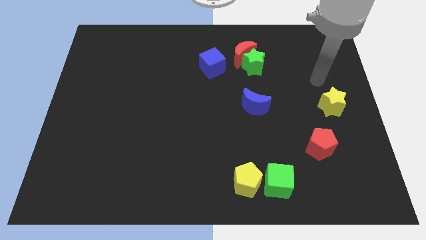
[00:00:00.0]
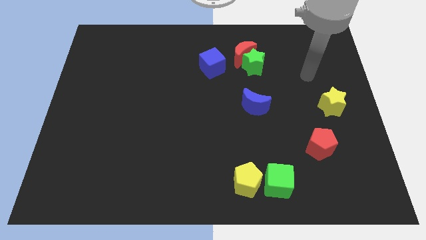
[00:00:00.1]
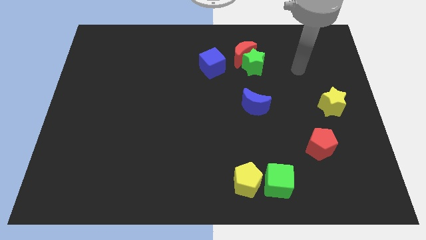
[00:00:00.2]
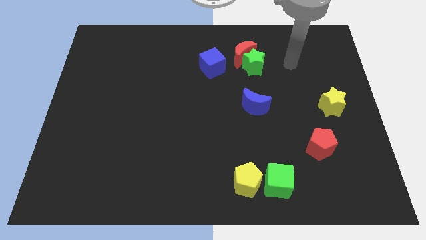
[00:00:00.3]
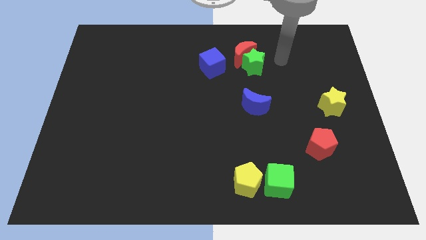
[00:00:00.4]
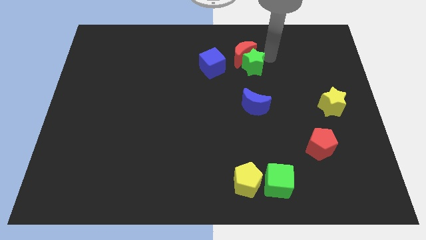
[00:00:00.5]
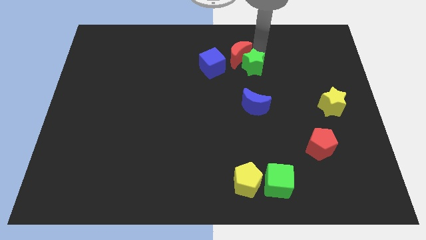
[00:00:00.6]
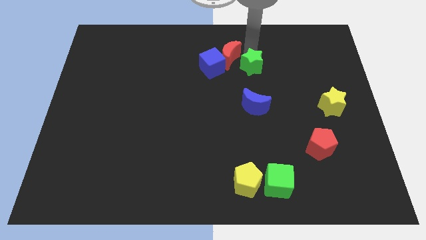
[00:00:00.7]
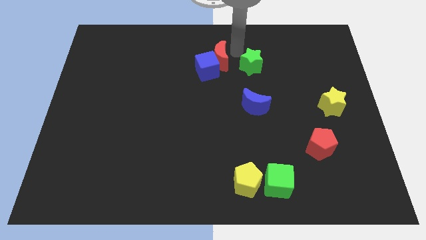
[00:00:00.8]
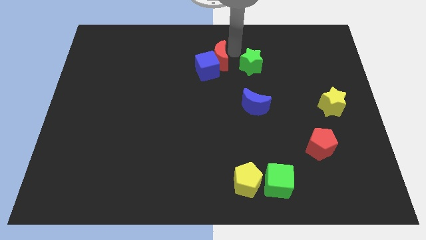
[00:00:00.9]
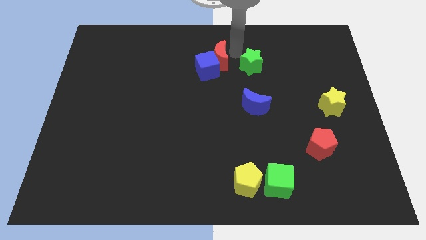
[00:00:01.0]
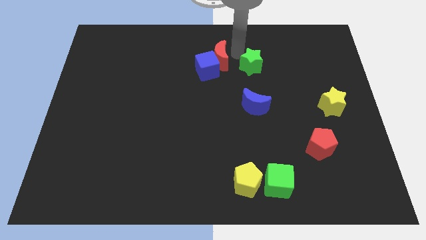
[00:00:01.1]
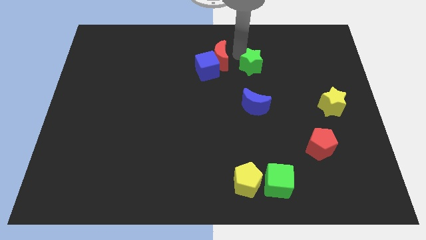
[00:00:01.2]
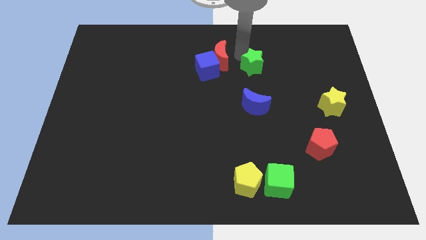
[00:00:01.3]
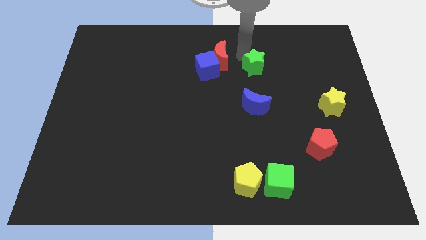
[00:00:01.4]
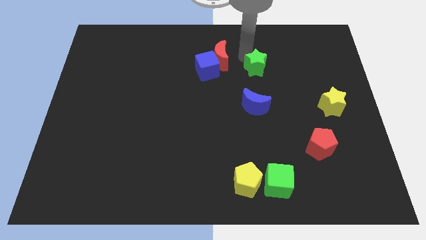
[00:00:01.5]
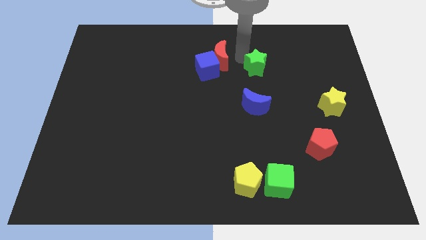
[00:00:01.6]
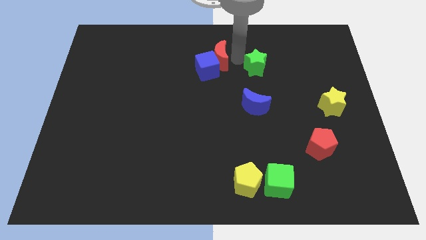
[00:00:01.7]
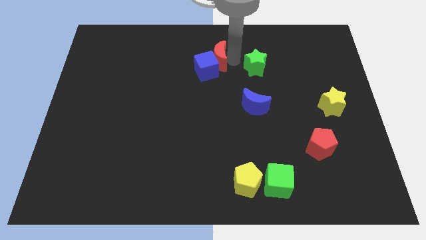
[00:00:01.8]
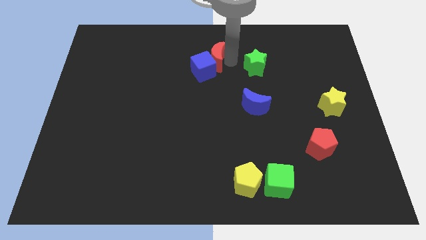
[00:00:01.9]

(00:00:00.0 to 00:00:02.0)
separate the green star from the red moon

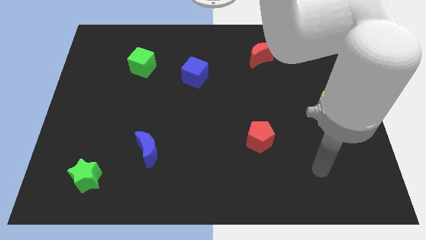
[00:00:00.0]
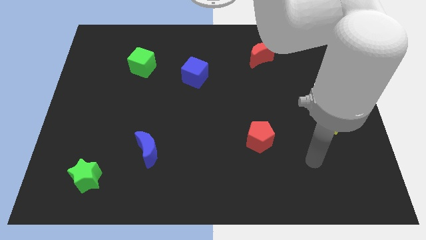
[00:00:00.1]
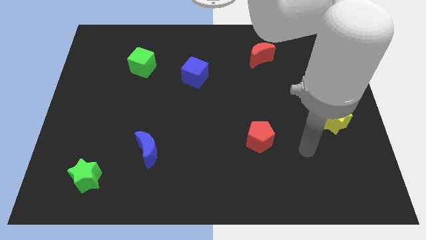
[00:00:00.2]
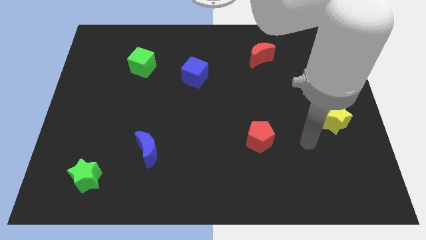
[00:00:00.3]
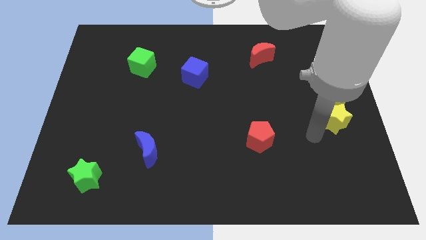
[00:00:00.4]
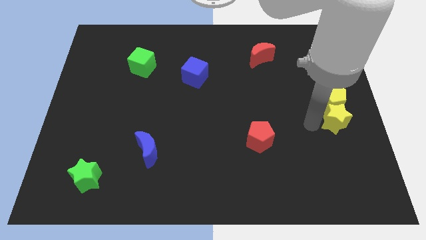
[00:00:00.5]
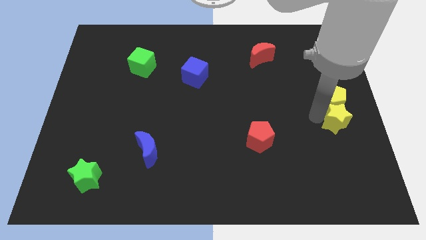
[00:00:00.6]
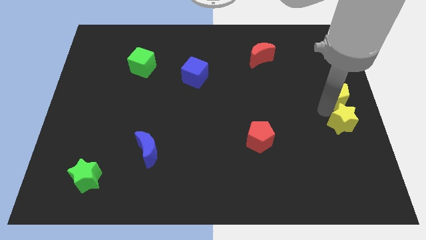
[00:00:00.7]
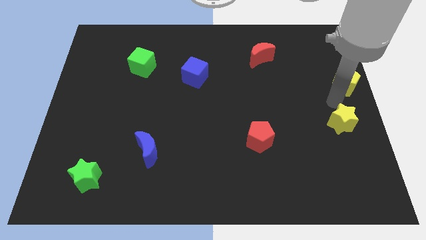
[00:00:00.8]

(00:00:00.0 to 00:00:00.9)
pull the yellow star apart from the yellow pentagon

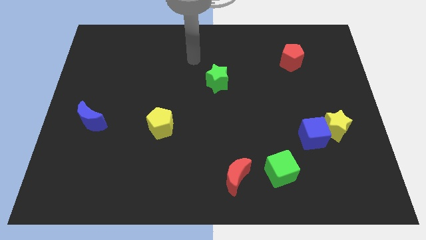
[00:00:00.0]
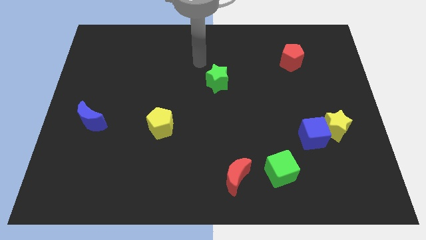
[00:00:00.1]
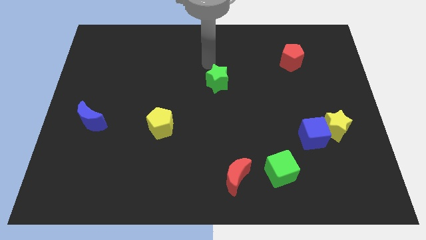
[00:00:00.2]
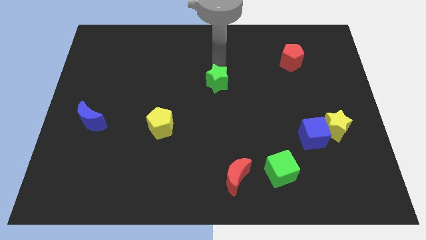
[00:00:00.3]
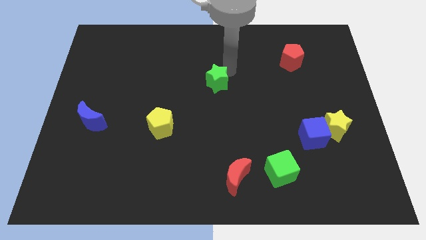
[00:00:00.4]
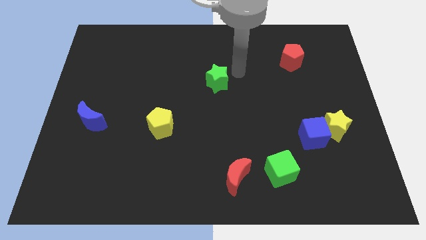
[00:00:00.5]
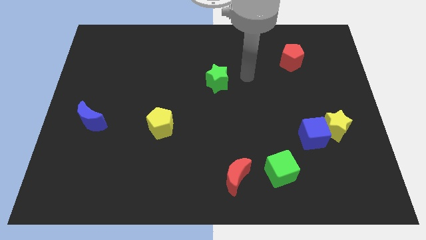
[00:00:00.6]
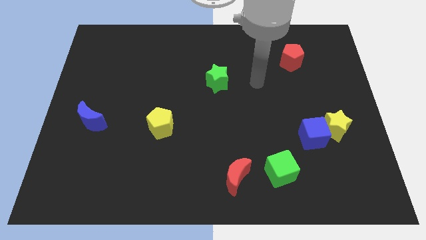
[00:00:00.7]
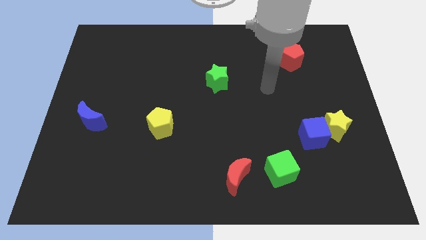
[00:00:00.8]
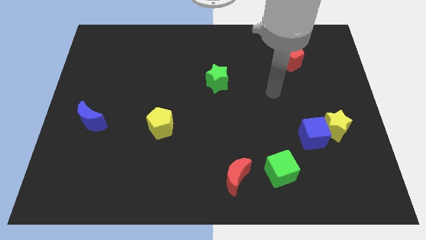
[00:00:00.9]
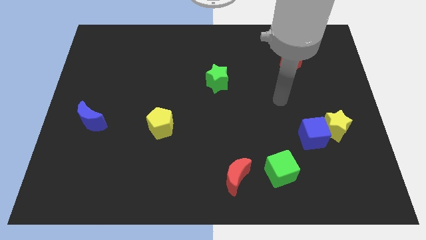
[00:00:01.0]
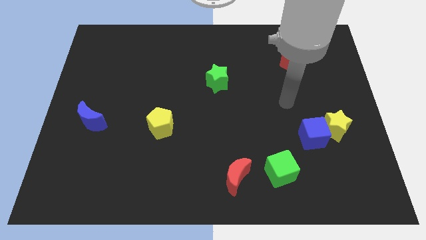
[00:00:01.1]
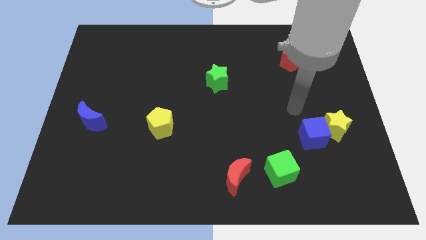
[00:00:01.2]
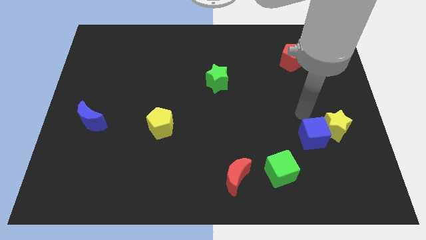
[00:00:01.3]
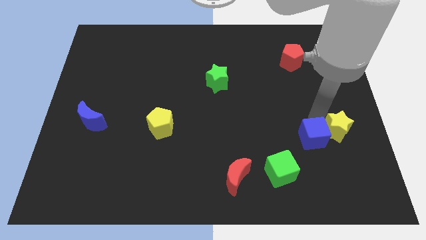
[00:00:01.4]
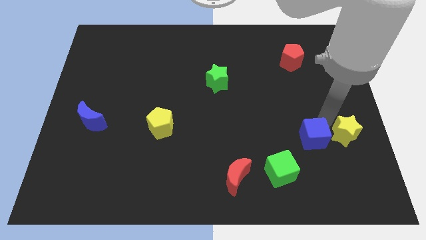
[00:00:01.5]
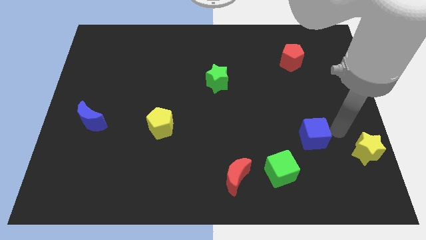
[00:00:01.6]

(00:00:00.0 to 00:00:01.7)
move the blue cube away from the yellow star

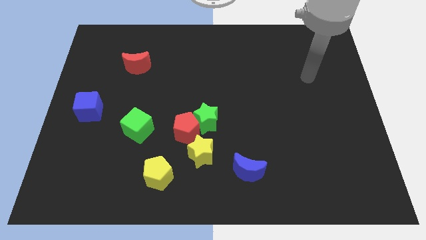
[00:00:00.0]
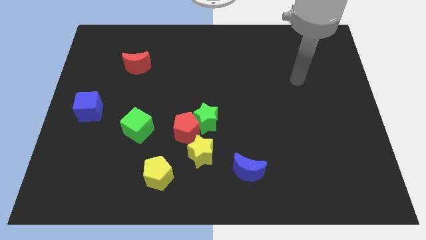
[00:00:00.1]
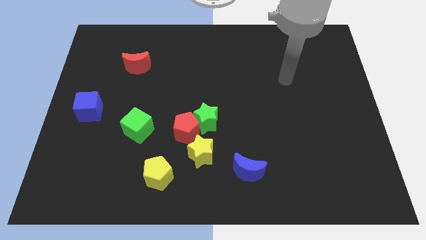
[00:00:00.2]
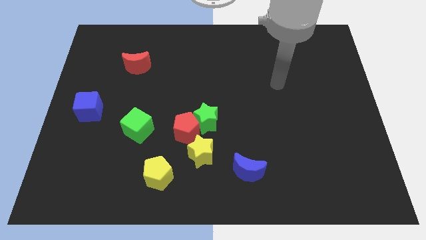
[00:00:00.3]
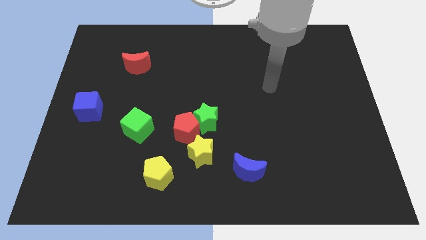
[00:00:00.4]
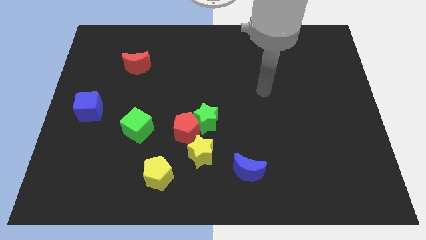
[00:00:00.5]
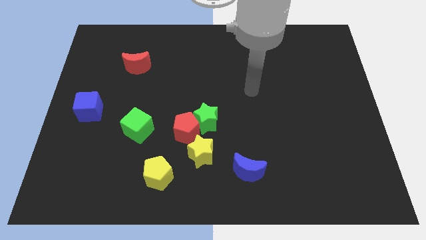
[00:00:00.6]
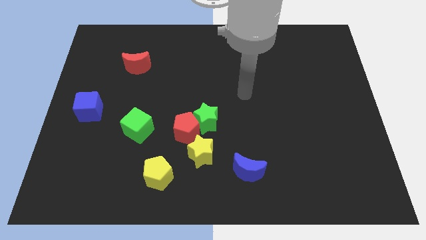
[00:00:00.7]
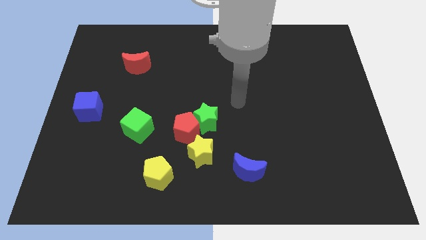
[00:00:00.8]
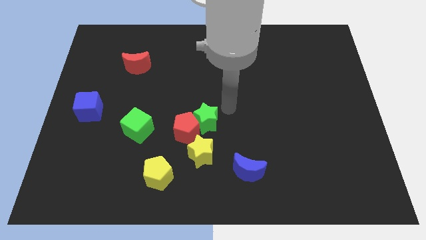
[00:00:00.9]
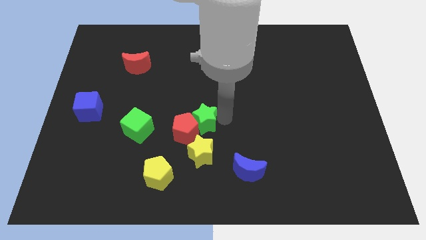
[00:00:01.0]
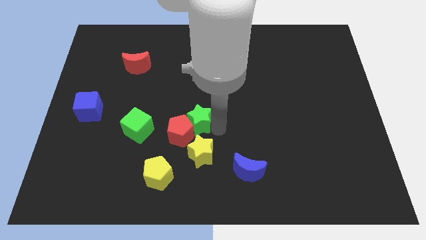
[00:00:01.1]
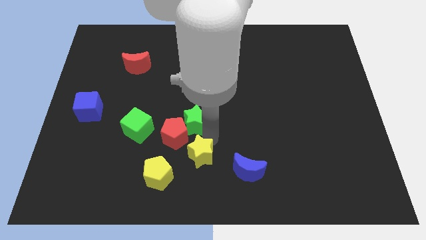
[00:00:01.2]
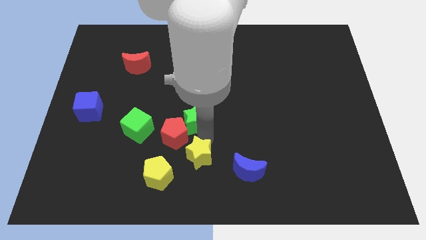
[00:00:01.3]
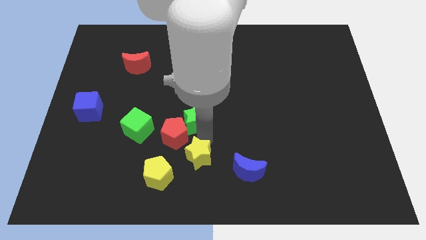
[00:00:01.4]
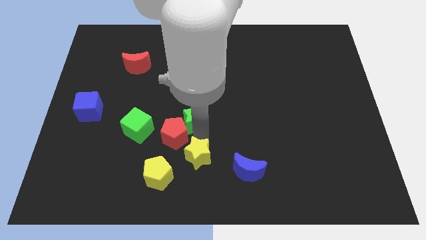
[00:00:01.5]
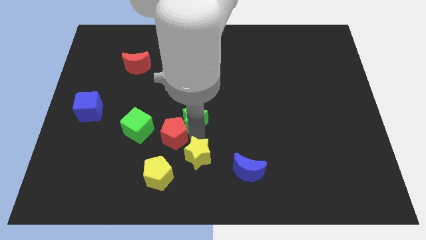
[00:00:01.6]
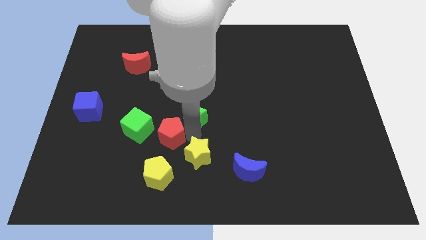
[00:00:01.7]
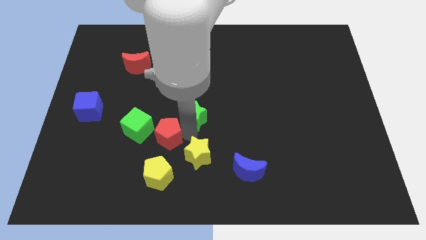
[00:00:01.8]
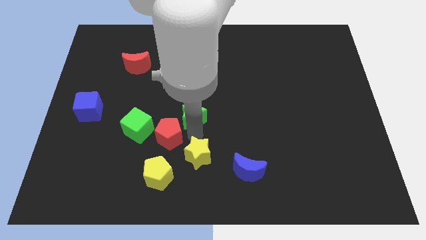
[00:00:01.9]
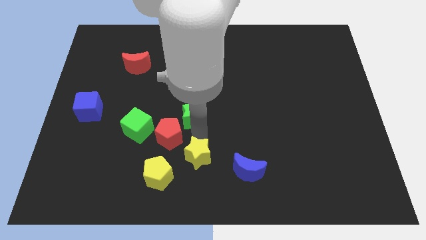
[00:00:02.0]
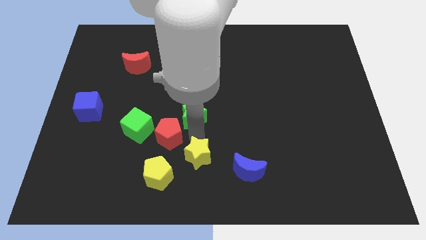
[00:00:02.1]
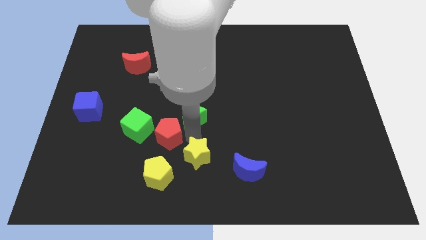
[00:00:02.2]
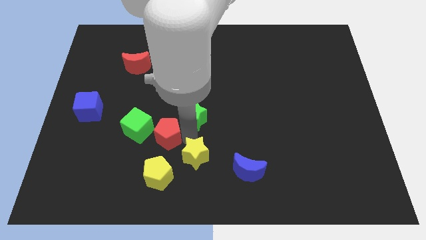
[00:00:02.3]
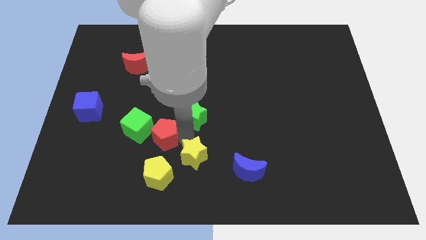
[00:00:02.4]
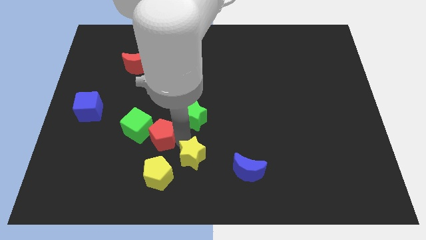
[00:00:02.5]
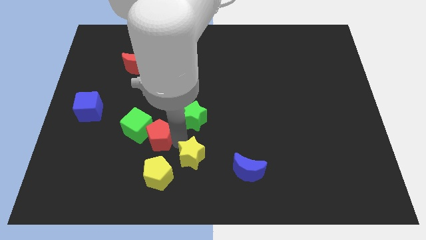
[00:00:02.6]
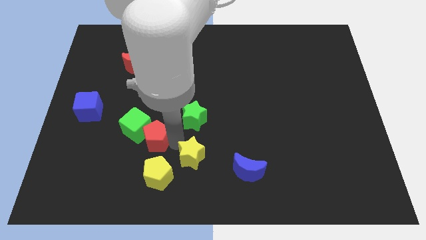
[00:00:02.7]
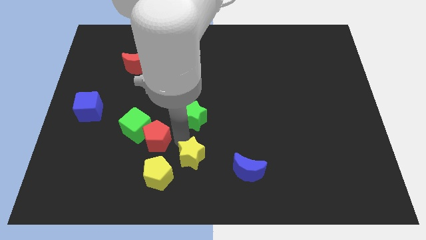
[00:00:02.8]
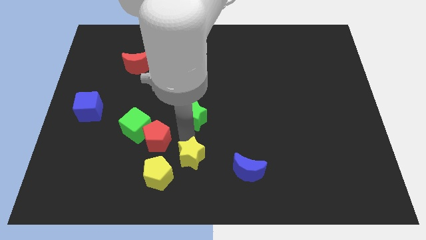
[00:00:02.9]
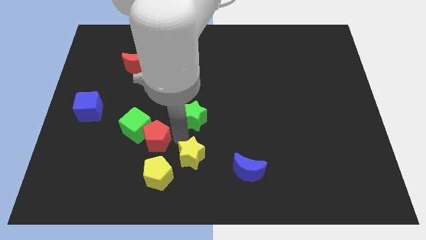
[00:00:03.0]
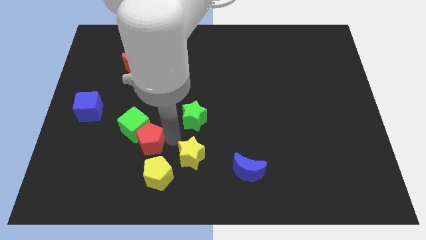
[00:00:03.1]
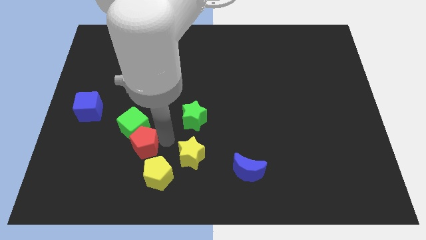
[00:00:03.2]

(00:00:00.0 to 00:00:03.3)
move the red pentagon away from the green star and yellow star

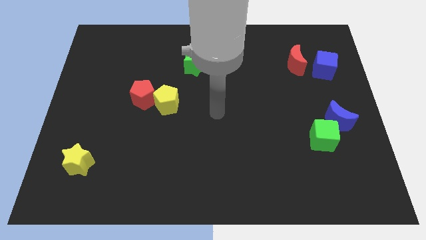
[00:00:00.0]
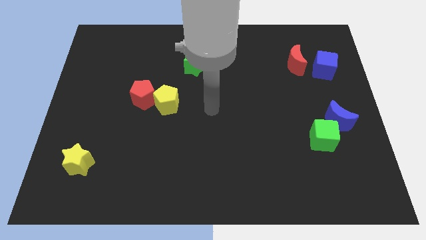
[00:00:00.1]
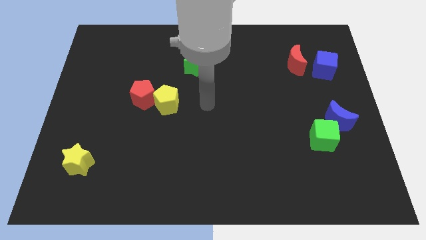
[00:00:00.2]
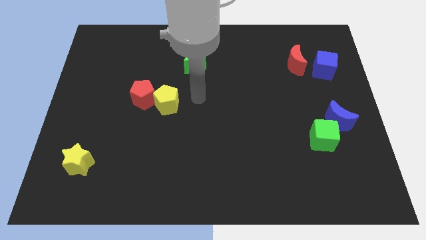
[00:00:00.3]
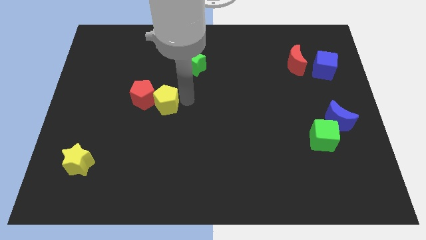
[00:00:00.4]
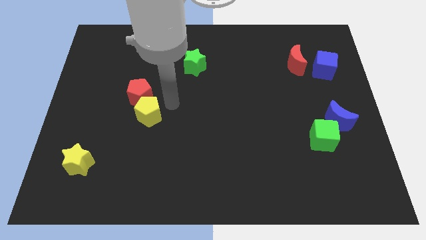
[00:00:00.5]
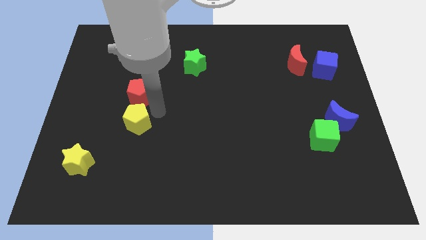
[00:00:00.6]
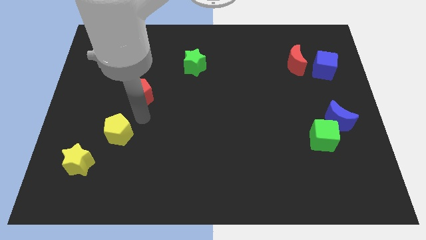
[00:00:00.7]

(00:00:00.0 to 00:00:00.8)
separate the red pentagon from the yellow pentagon

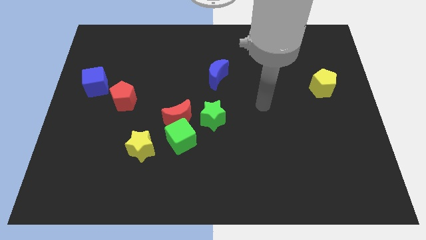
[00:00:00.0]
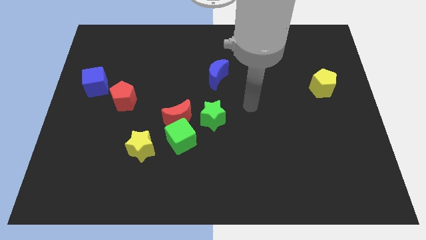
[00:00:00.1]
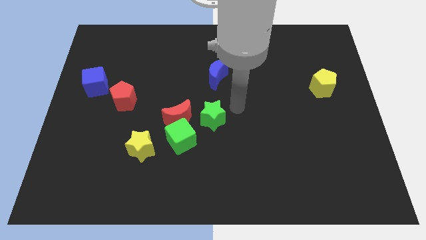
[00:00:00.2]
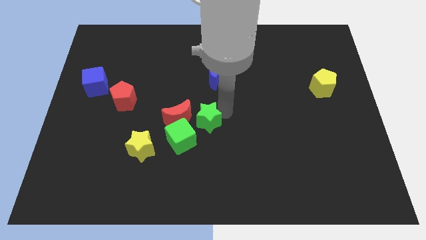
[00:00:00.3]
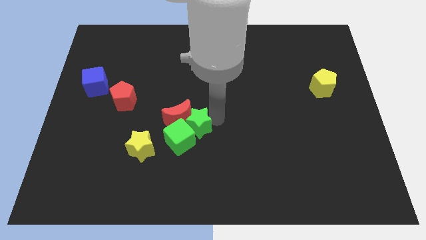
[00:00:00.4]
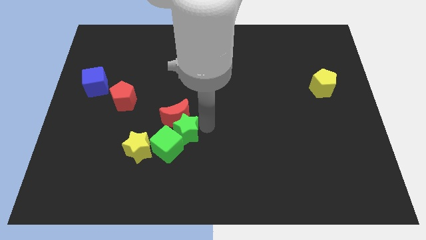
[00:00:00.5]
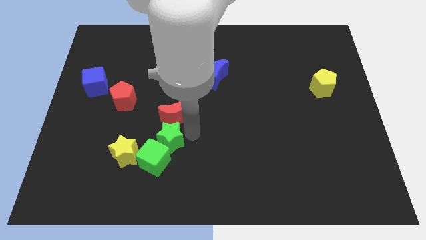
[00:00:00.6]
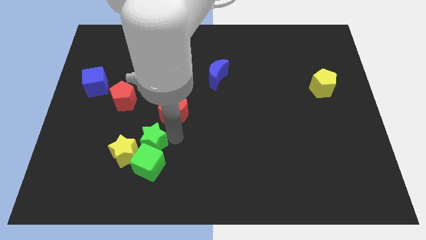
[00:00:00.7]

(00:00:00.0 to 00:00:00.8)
move the red moon away from the green cube and green star
